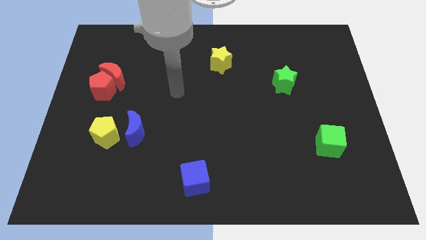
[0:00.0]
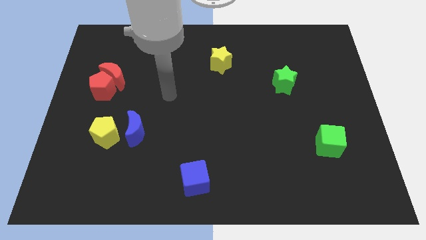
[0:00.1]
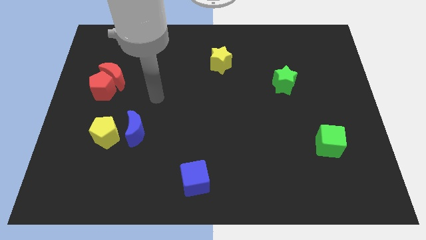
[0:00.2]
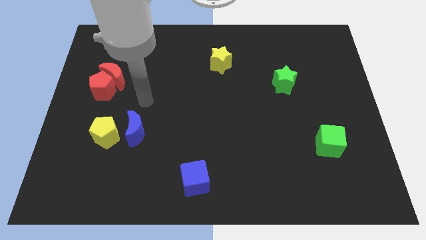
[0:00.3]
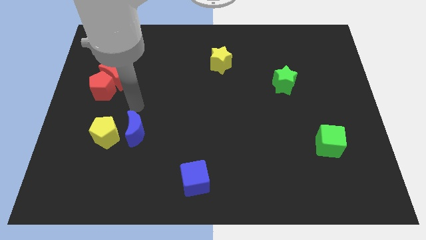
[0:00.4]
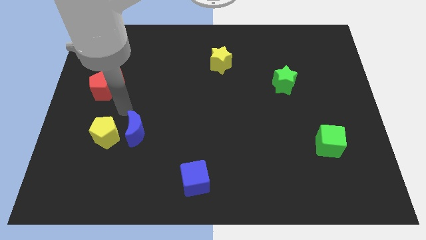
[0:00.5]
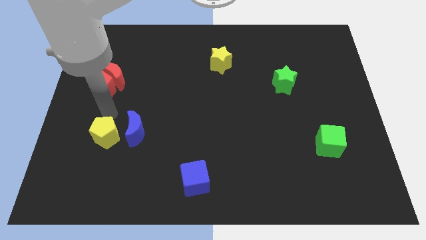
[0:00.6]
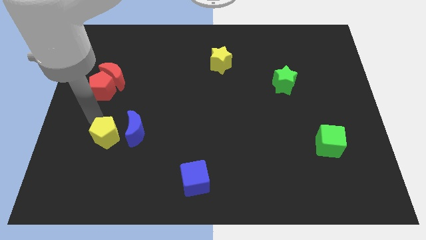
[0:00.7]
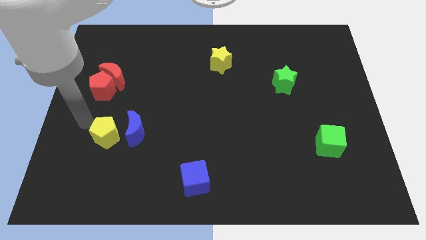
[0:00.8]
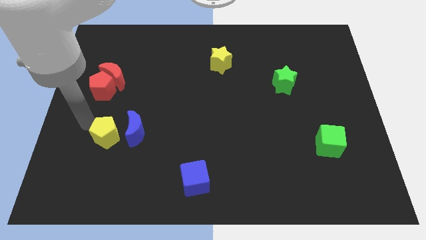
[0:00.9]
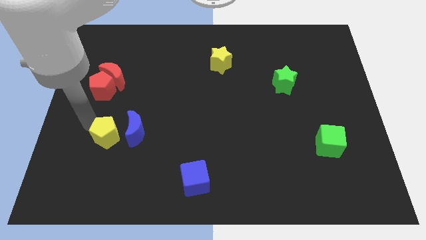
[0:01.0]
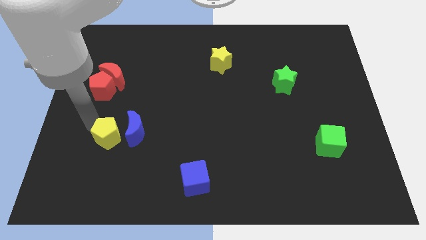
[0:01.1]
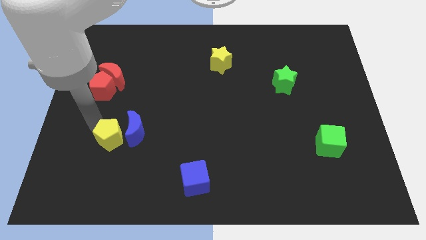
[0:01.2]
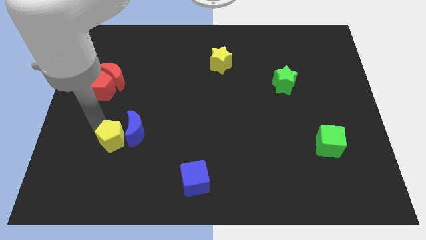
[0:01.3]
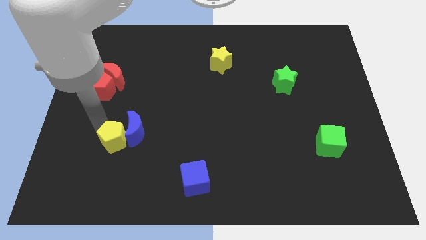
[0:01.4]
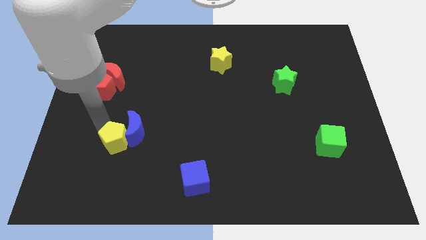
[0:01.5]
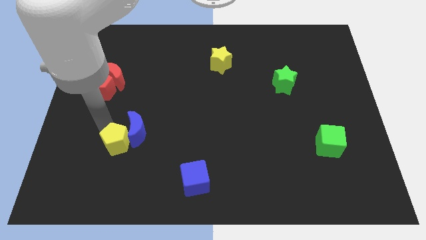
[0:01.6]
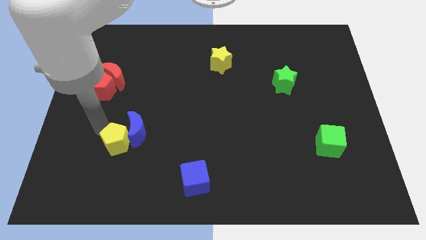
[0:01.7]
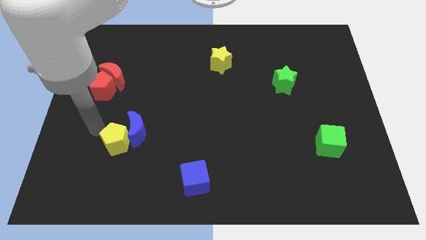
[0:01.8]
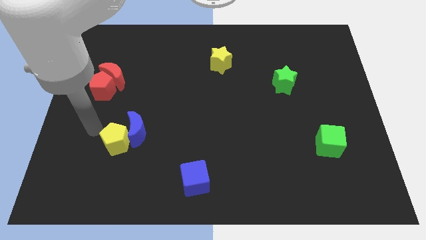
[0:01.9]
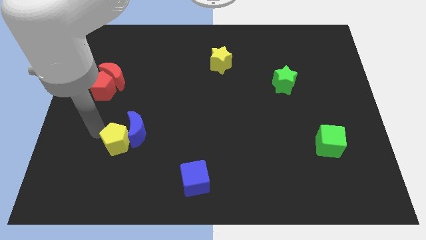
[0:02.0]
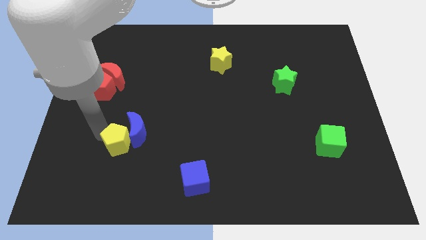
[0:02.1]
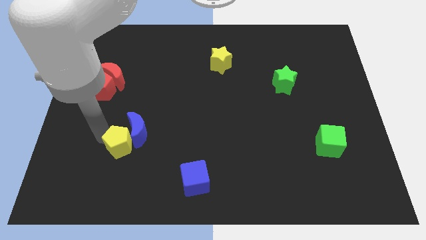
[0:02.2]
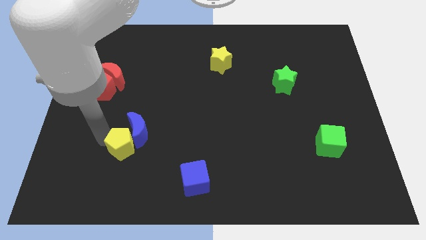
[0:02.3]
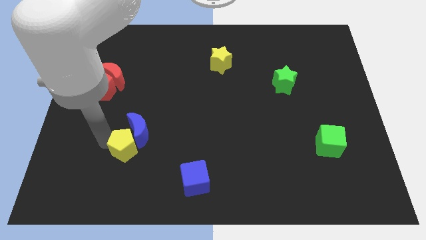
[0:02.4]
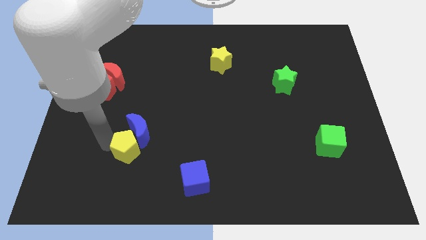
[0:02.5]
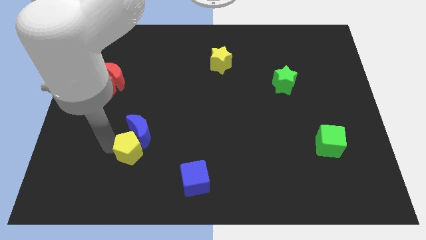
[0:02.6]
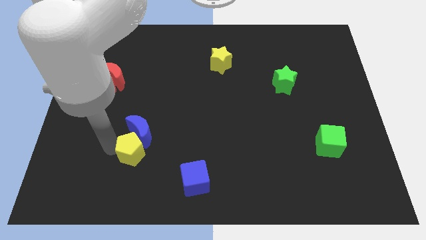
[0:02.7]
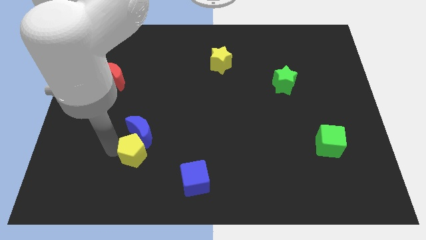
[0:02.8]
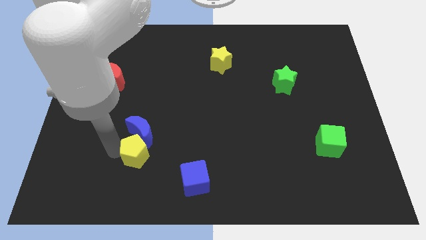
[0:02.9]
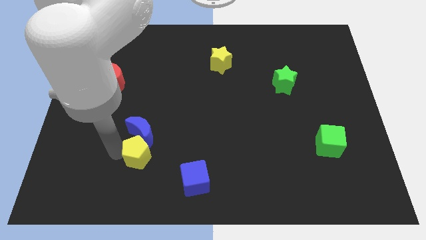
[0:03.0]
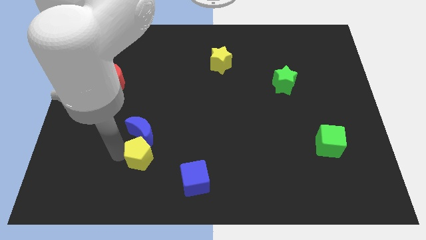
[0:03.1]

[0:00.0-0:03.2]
slightly push the yellow pentagon right

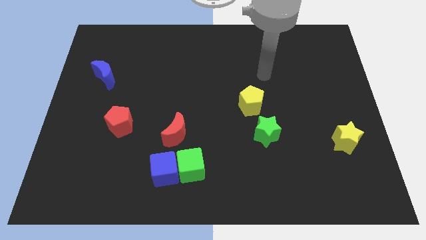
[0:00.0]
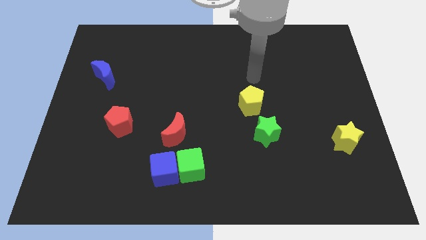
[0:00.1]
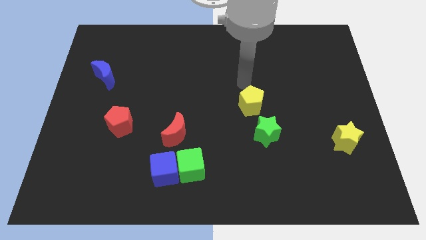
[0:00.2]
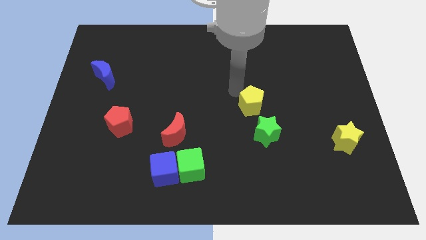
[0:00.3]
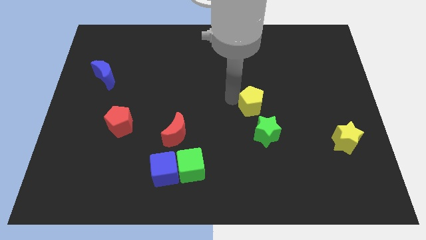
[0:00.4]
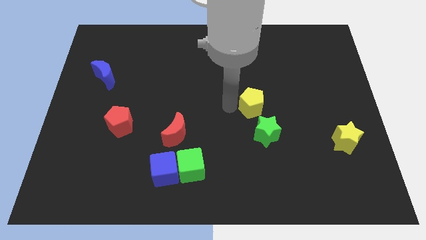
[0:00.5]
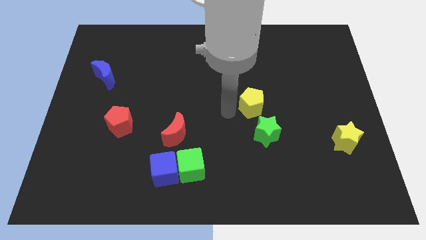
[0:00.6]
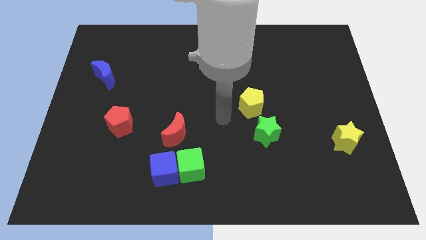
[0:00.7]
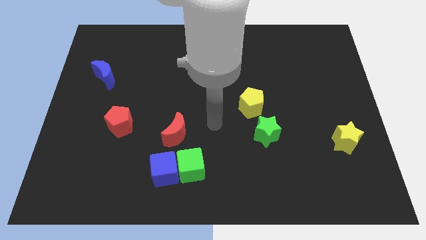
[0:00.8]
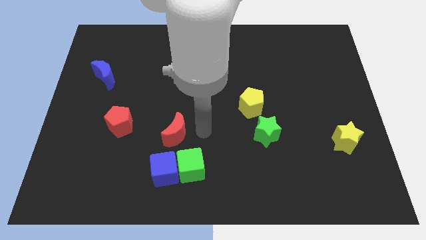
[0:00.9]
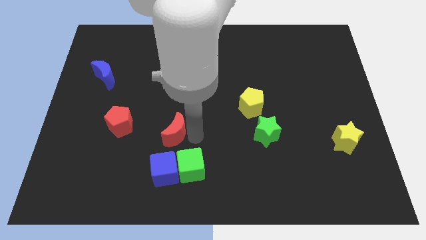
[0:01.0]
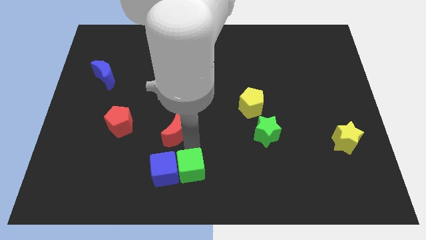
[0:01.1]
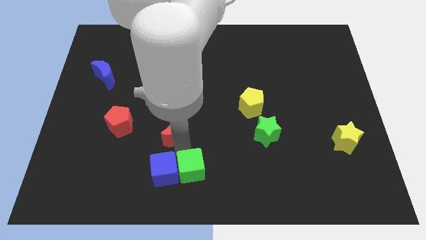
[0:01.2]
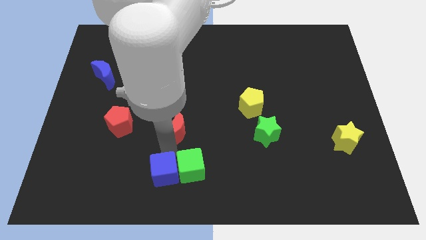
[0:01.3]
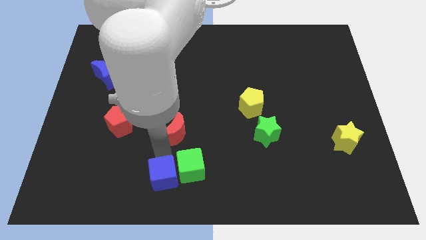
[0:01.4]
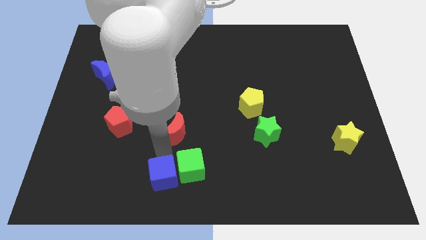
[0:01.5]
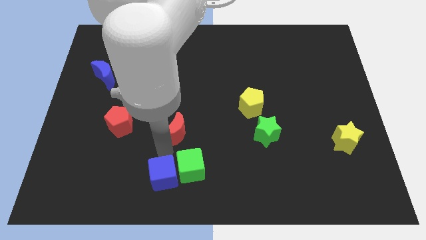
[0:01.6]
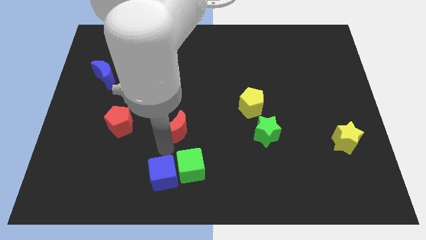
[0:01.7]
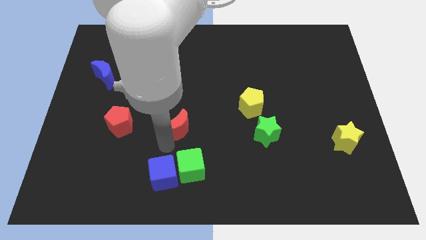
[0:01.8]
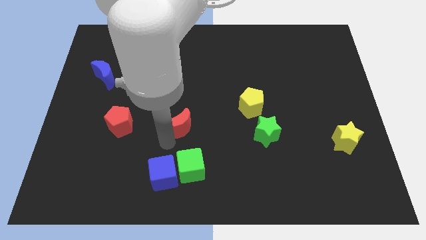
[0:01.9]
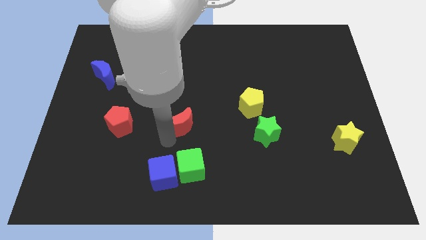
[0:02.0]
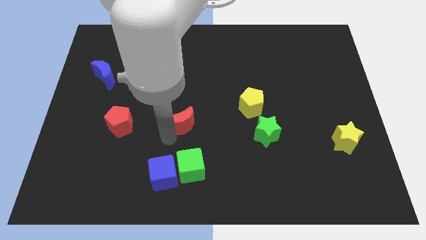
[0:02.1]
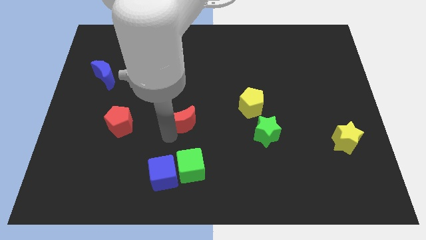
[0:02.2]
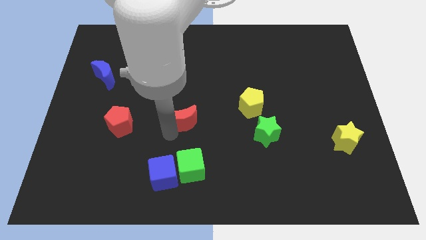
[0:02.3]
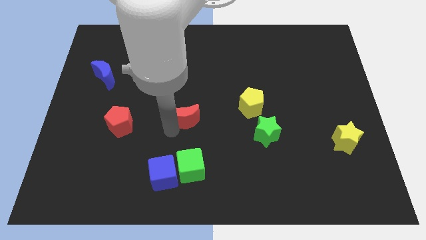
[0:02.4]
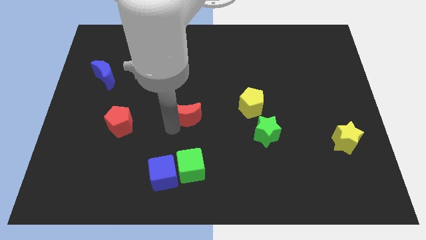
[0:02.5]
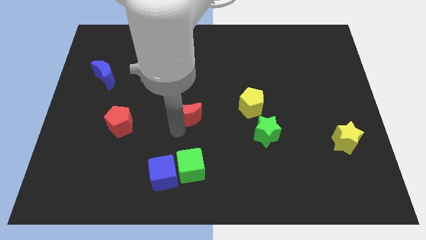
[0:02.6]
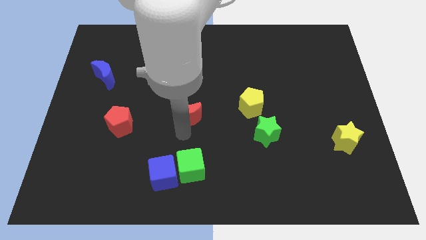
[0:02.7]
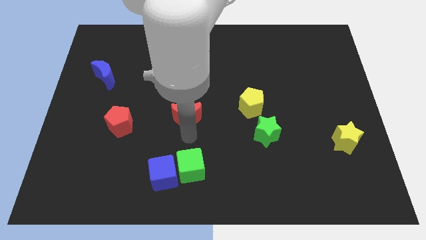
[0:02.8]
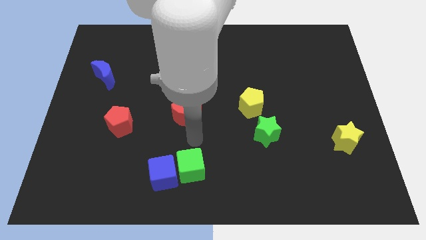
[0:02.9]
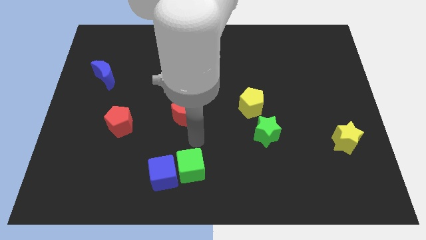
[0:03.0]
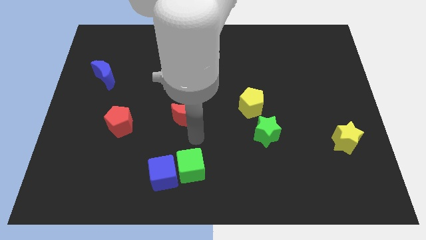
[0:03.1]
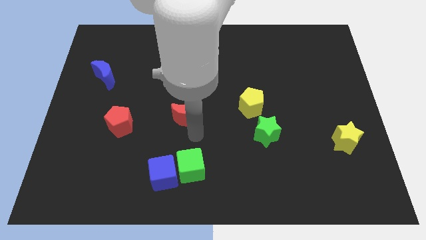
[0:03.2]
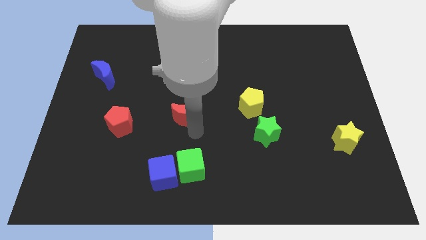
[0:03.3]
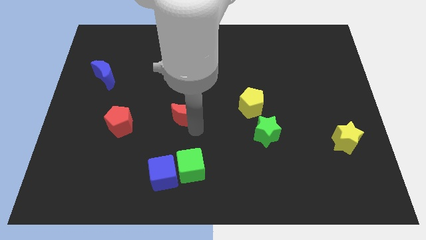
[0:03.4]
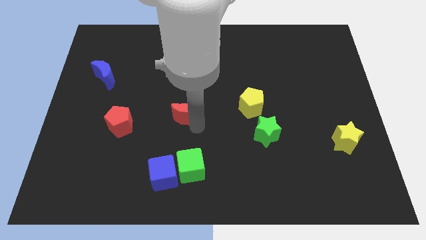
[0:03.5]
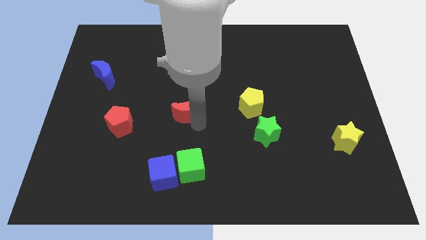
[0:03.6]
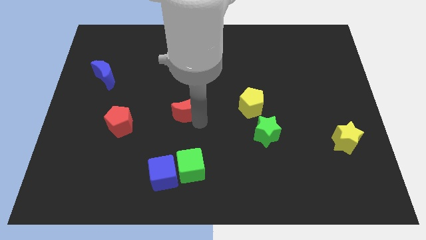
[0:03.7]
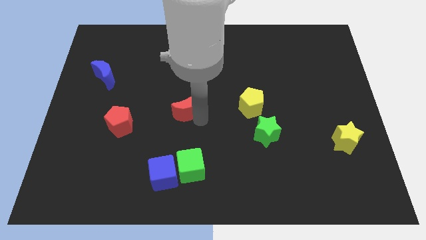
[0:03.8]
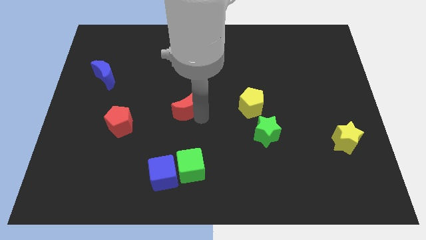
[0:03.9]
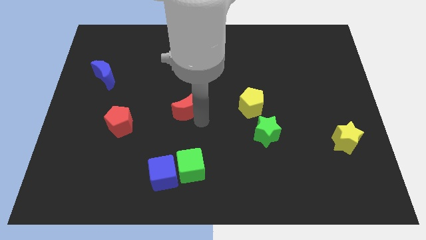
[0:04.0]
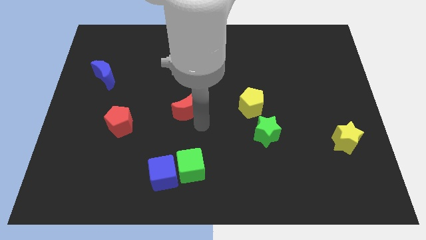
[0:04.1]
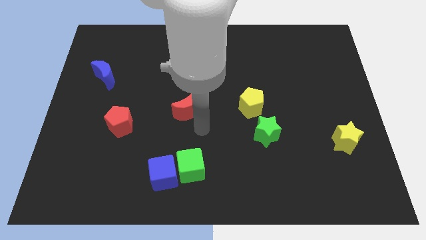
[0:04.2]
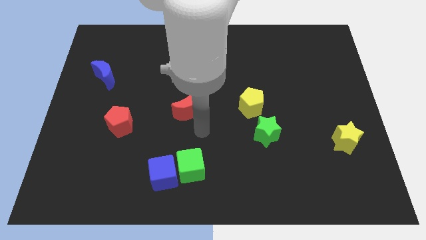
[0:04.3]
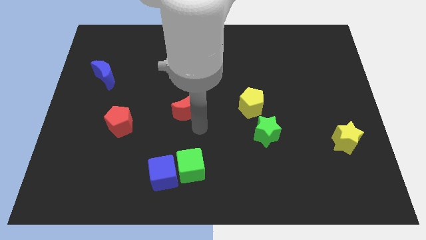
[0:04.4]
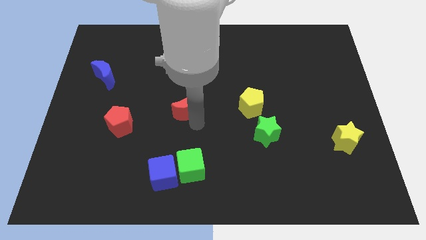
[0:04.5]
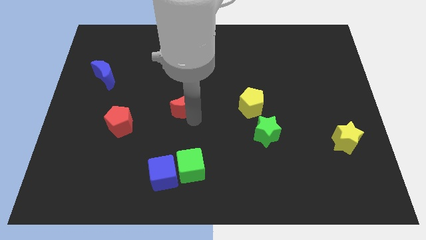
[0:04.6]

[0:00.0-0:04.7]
slightly slide the red moon upwards

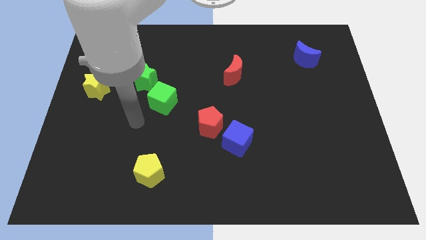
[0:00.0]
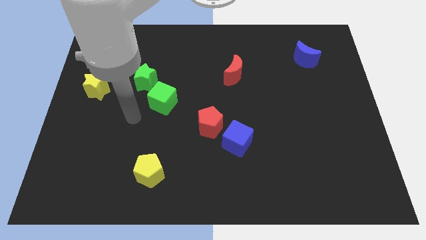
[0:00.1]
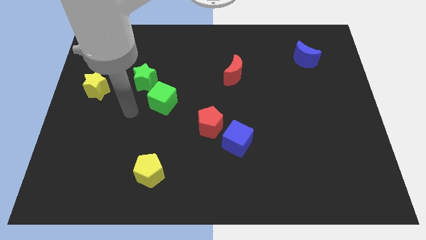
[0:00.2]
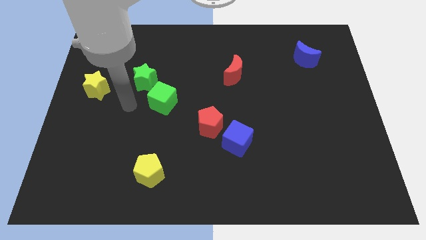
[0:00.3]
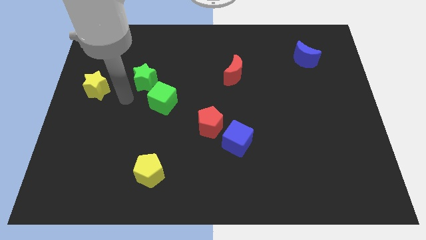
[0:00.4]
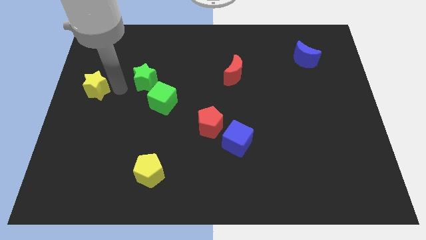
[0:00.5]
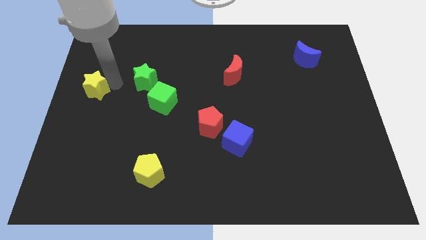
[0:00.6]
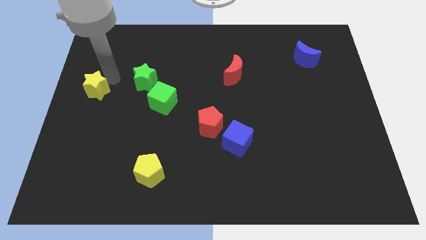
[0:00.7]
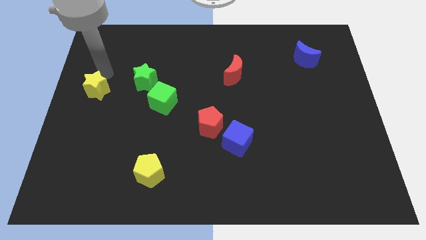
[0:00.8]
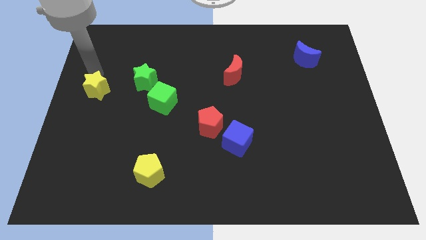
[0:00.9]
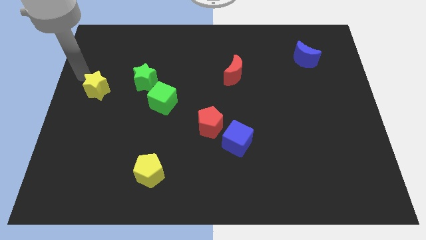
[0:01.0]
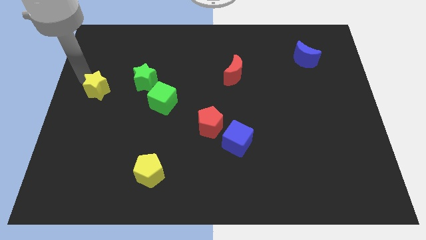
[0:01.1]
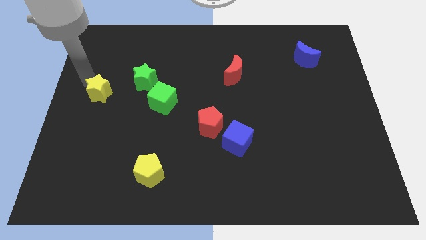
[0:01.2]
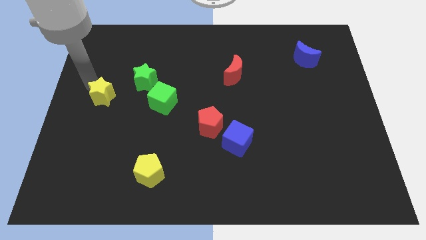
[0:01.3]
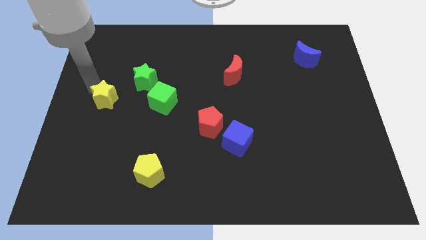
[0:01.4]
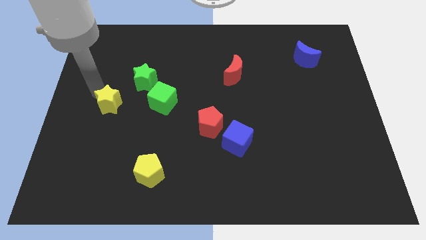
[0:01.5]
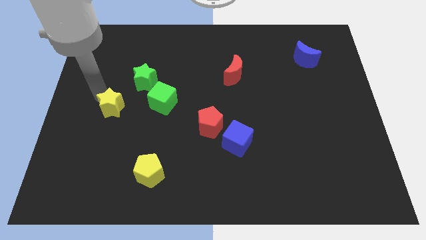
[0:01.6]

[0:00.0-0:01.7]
push the yellow star down and to the right slightly
